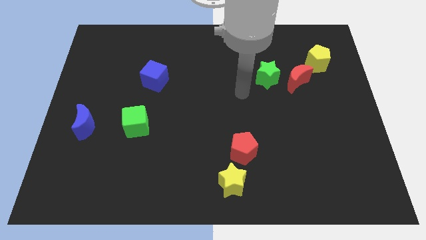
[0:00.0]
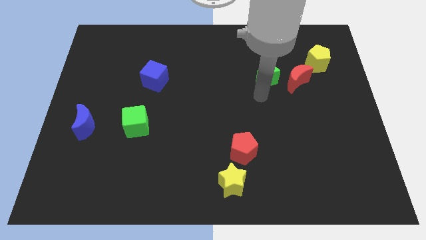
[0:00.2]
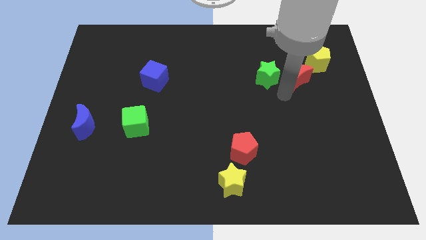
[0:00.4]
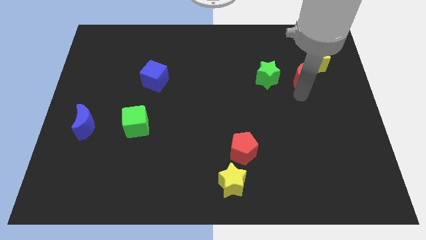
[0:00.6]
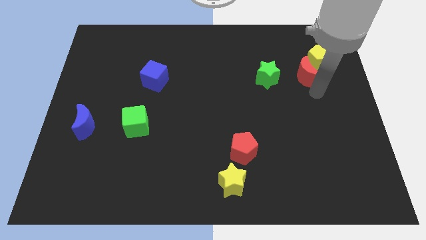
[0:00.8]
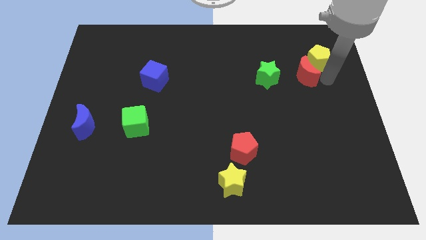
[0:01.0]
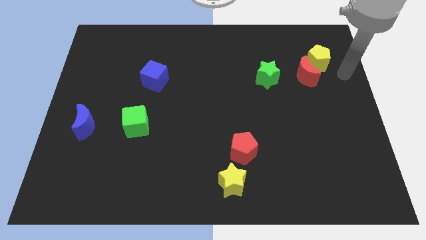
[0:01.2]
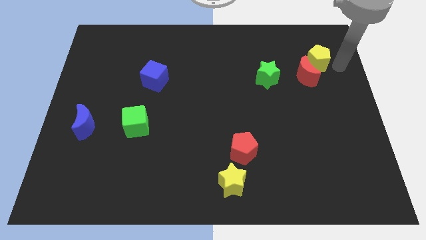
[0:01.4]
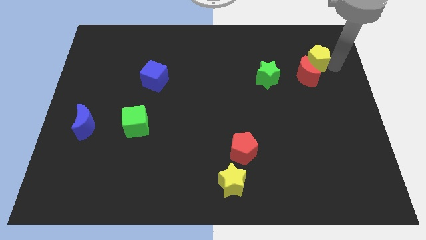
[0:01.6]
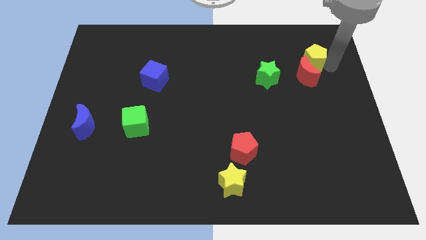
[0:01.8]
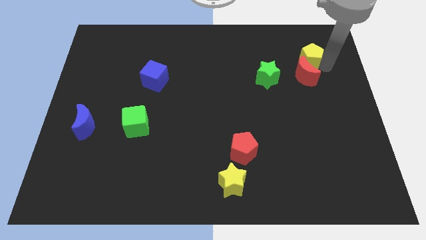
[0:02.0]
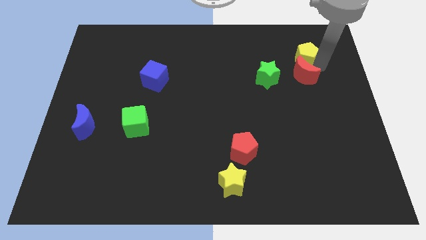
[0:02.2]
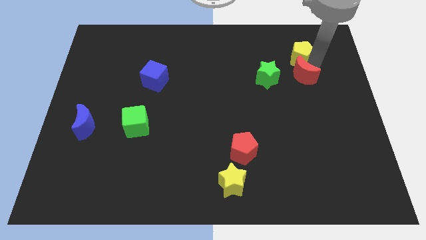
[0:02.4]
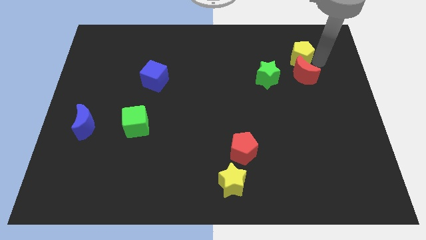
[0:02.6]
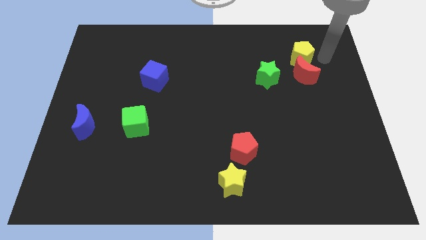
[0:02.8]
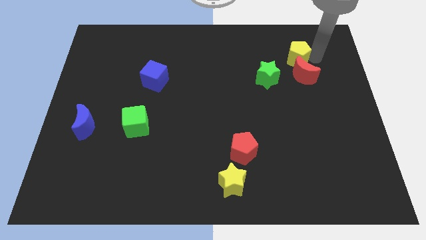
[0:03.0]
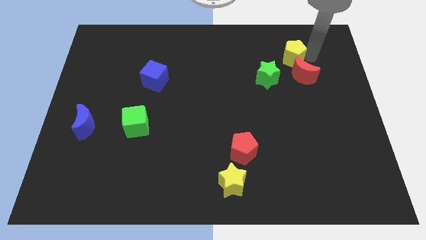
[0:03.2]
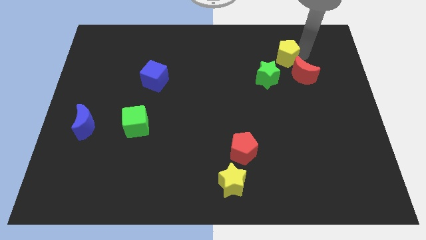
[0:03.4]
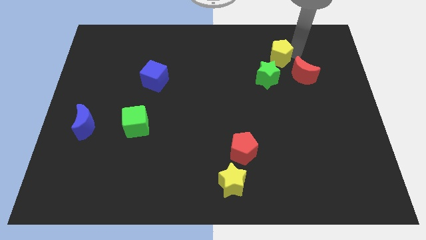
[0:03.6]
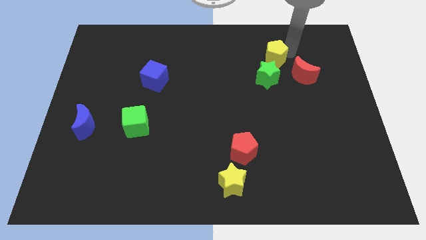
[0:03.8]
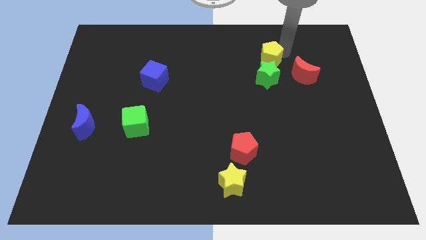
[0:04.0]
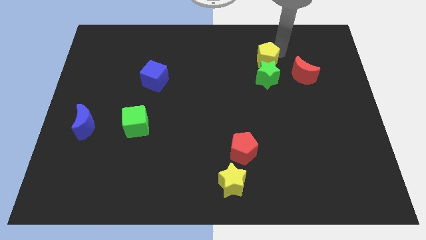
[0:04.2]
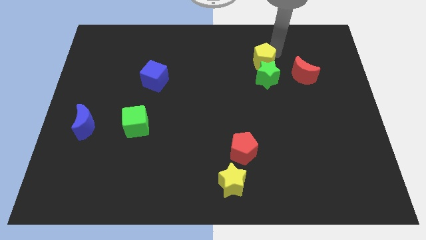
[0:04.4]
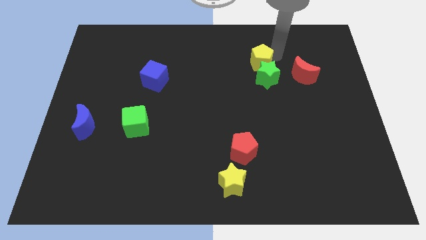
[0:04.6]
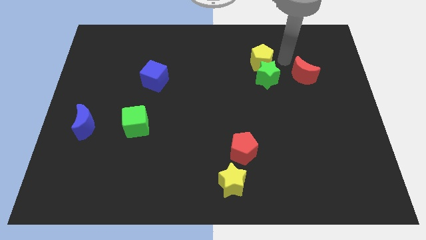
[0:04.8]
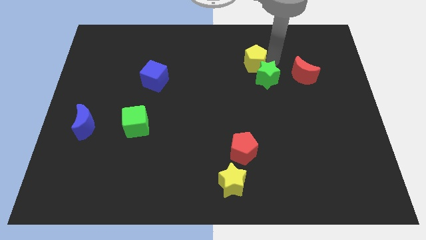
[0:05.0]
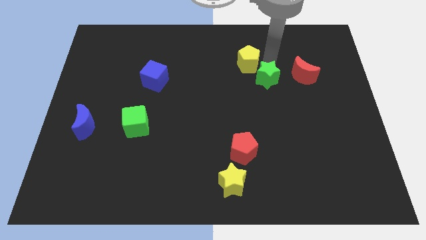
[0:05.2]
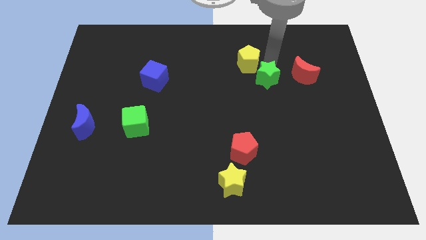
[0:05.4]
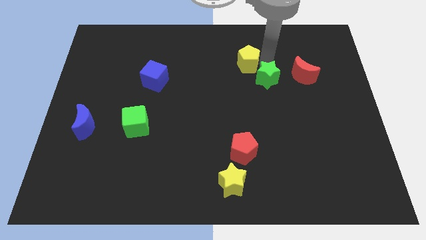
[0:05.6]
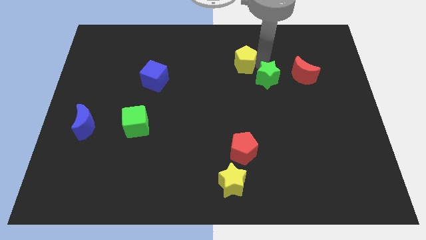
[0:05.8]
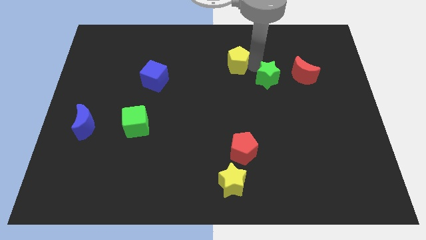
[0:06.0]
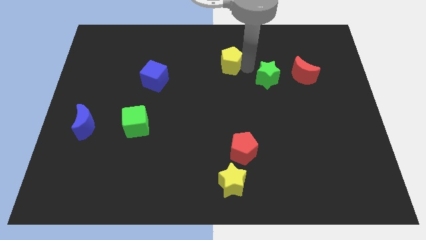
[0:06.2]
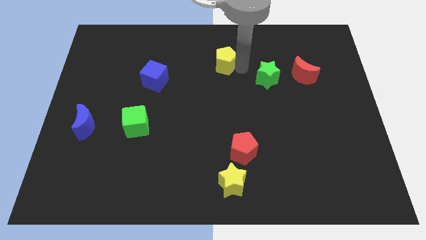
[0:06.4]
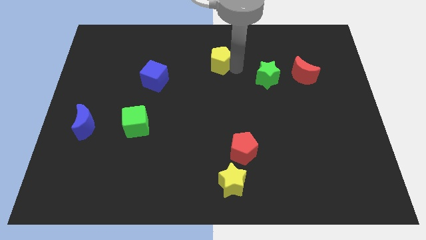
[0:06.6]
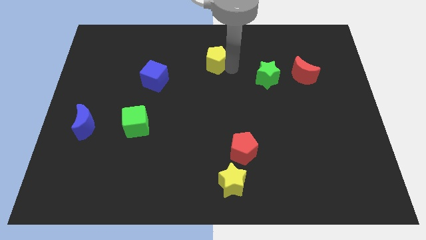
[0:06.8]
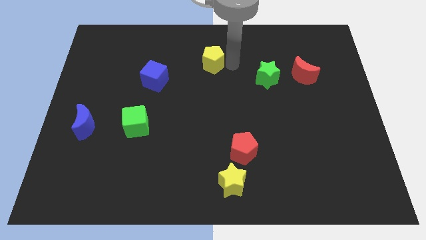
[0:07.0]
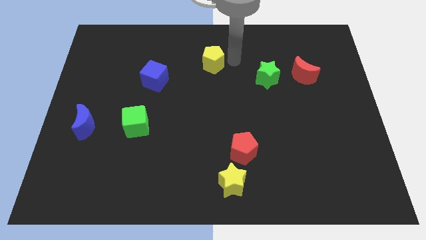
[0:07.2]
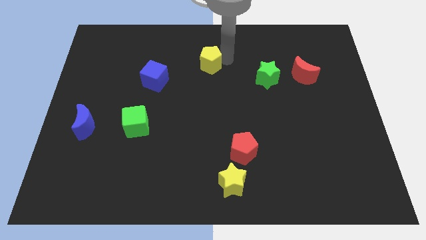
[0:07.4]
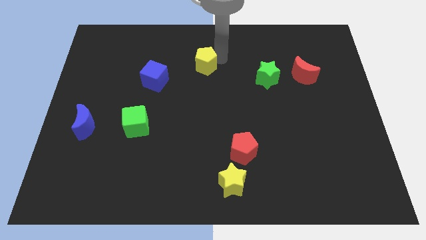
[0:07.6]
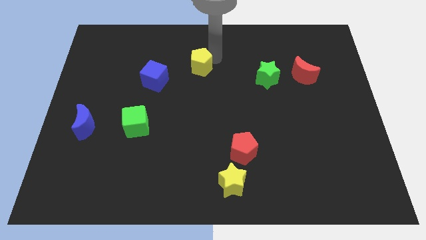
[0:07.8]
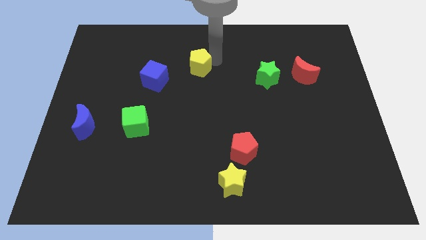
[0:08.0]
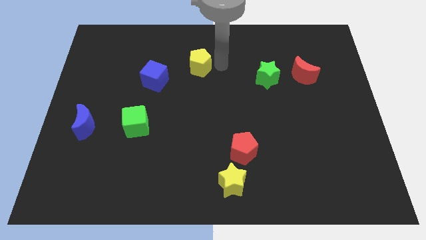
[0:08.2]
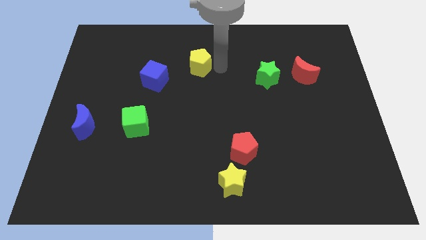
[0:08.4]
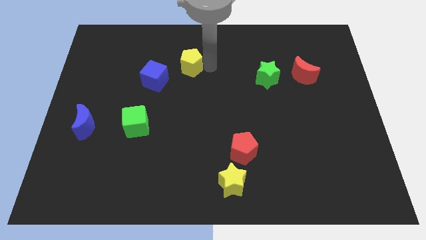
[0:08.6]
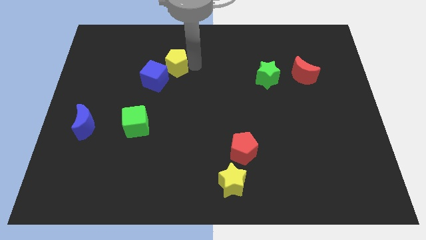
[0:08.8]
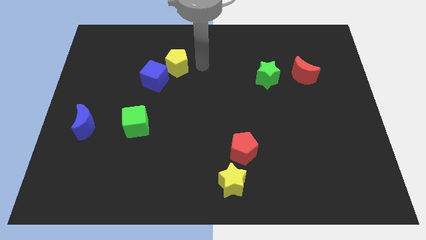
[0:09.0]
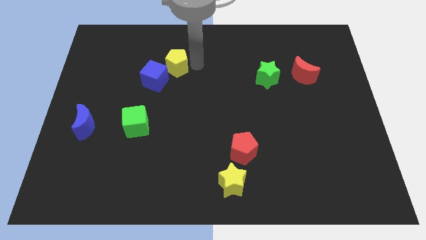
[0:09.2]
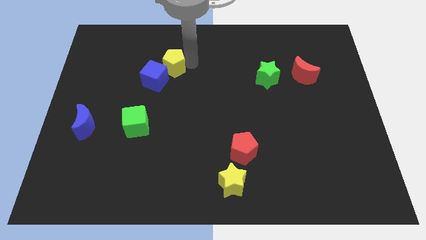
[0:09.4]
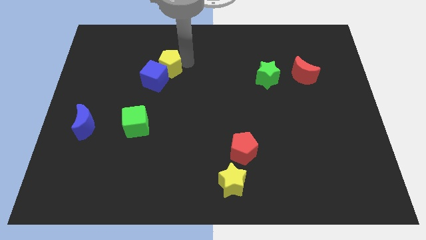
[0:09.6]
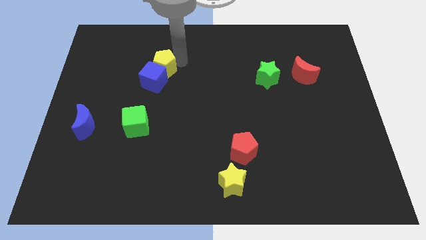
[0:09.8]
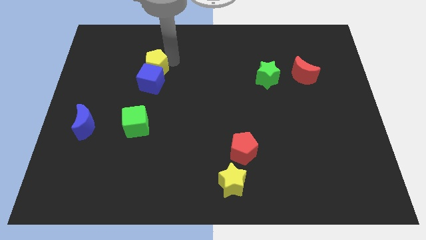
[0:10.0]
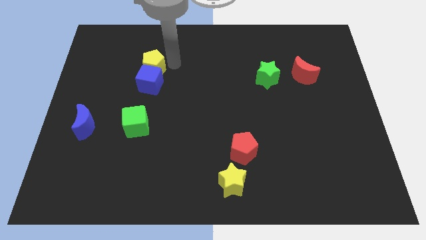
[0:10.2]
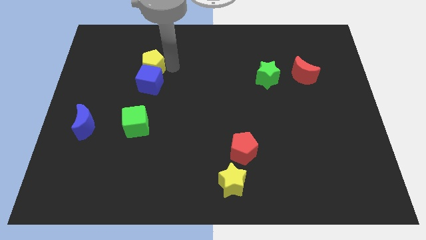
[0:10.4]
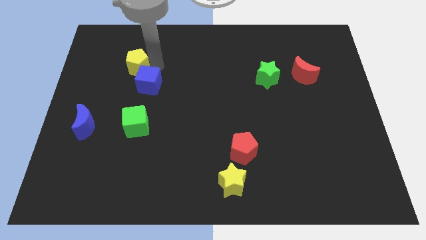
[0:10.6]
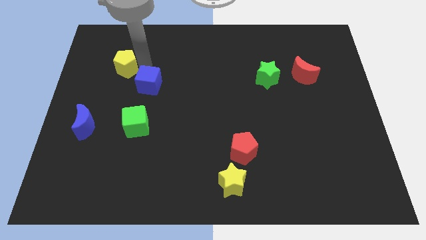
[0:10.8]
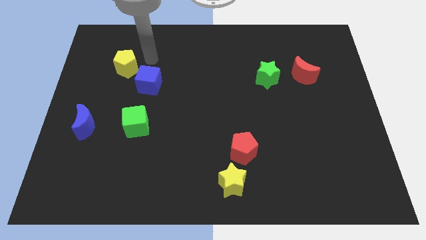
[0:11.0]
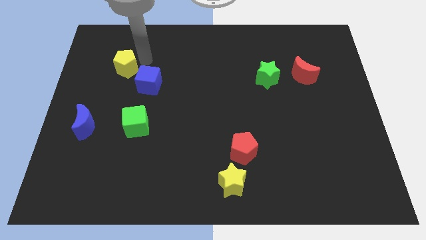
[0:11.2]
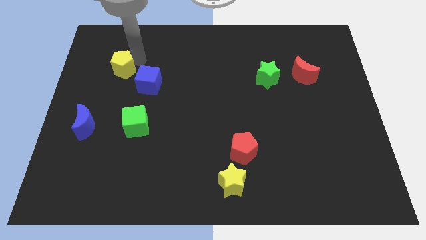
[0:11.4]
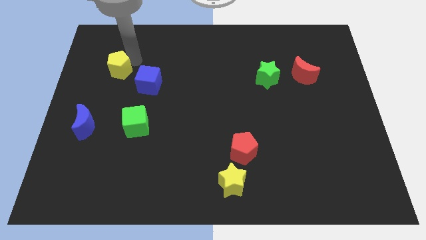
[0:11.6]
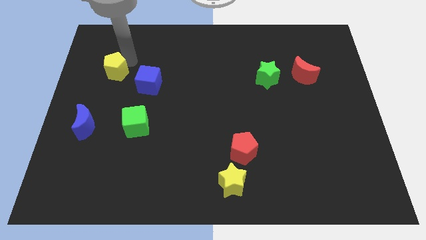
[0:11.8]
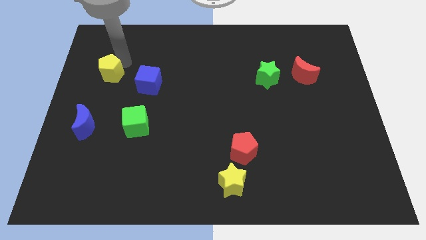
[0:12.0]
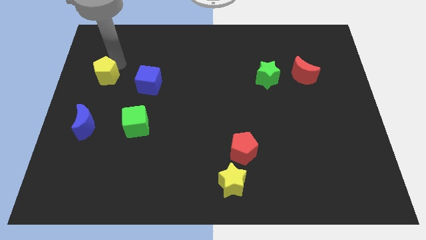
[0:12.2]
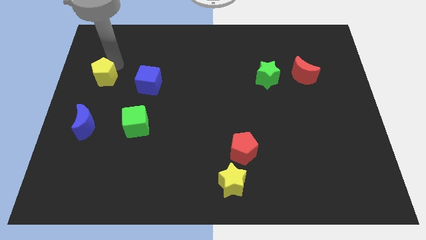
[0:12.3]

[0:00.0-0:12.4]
move the yellow pentagon to the left side of the board
